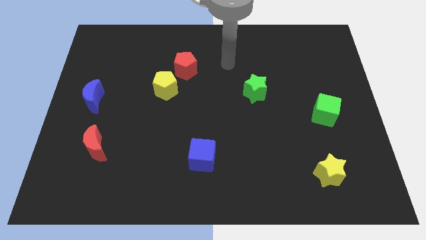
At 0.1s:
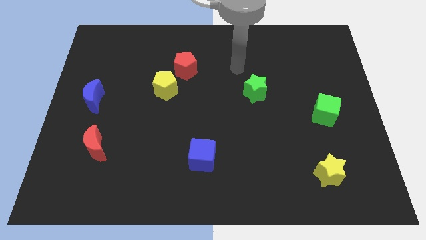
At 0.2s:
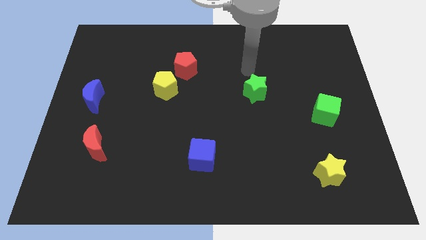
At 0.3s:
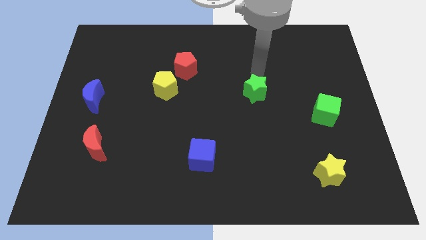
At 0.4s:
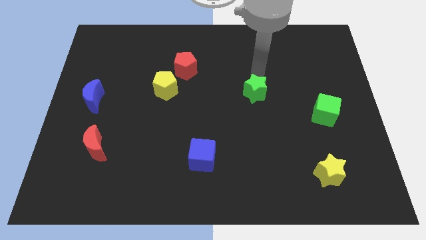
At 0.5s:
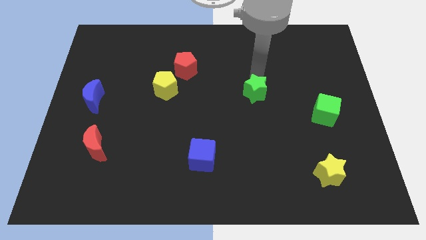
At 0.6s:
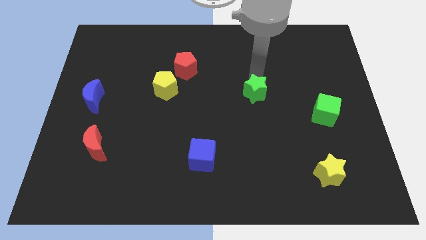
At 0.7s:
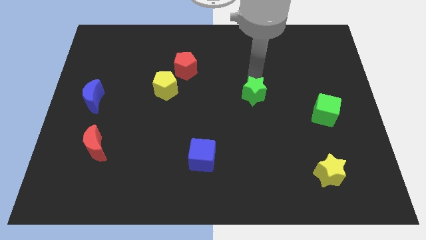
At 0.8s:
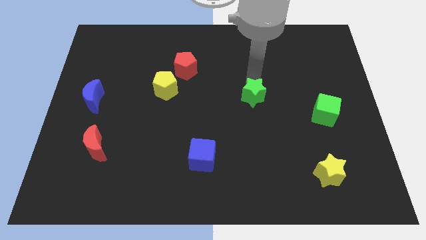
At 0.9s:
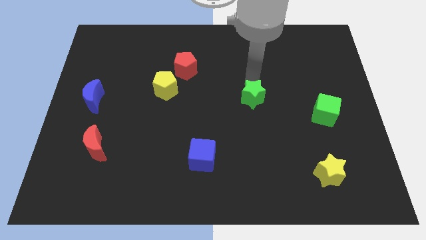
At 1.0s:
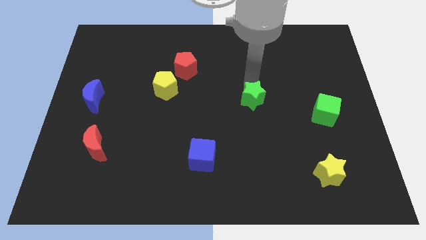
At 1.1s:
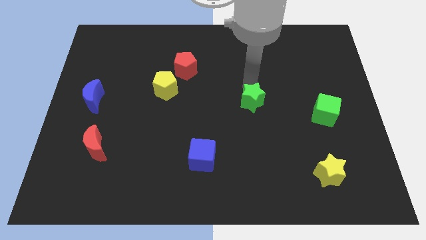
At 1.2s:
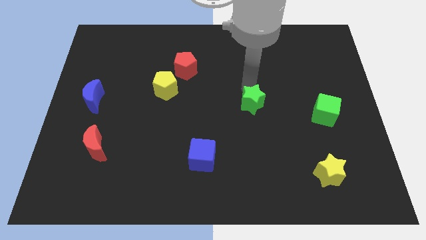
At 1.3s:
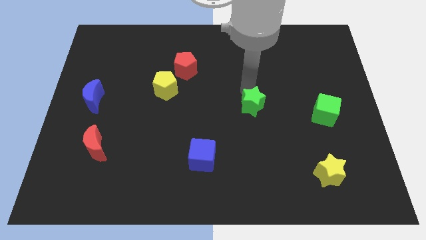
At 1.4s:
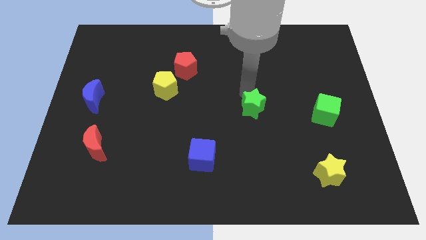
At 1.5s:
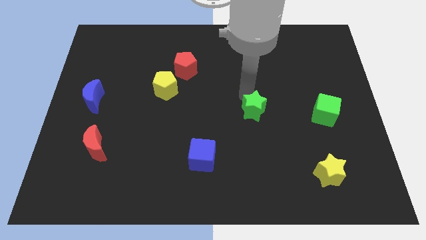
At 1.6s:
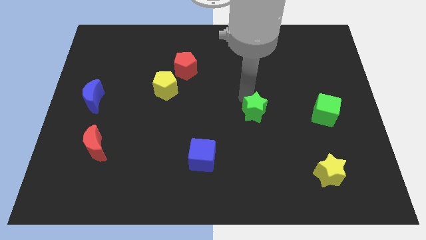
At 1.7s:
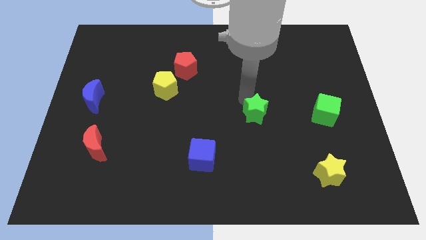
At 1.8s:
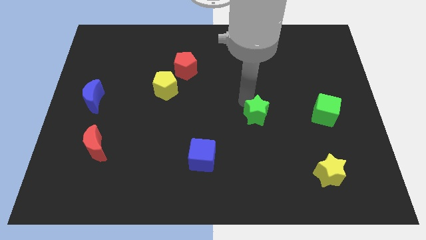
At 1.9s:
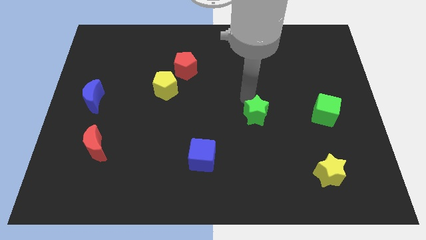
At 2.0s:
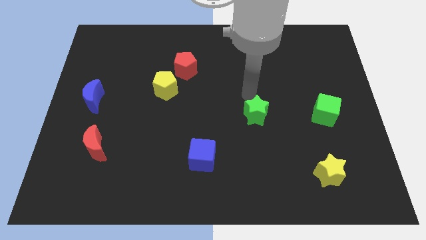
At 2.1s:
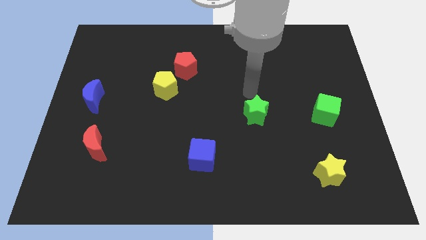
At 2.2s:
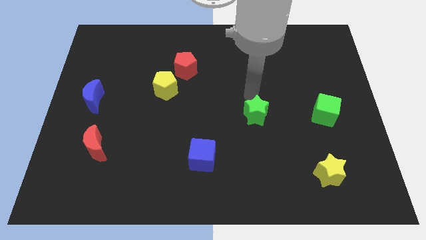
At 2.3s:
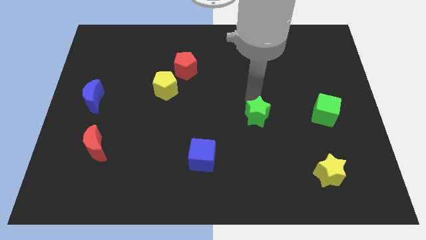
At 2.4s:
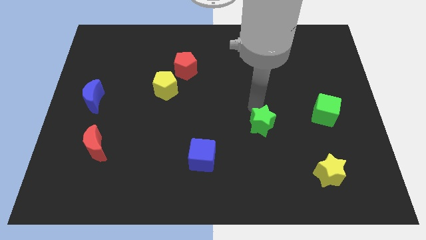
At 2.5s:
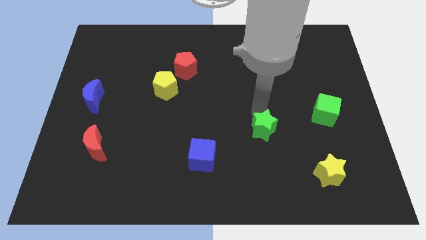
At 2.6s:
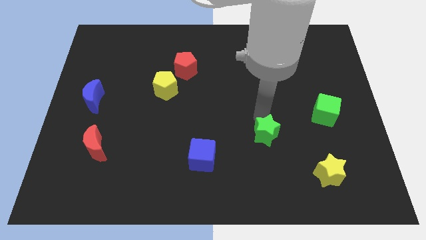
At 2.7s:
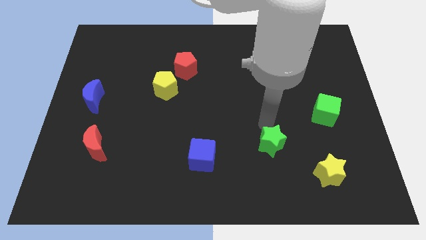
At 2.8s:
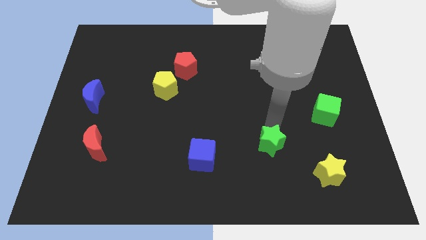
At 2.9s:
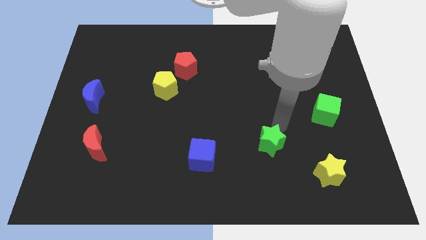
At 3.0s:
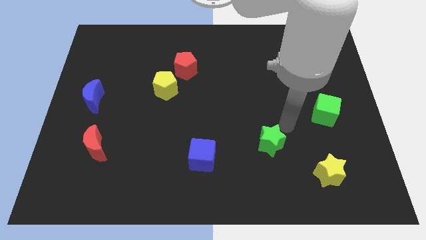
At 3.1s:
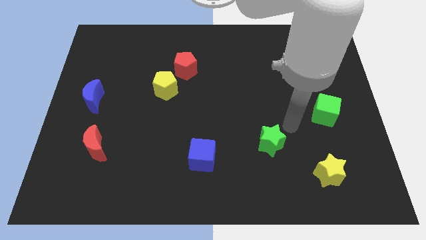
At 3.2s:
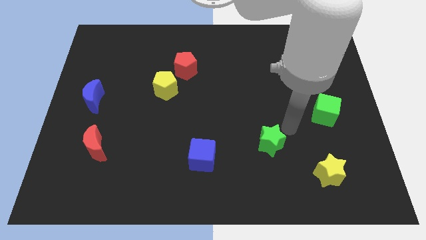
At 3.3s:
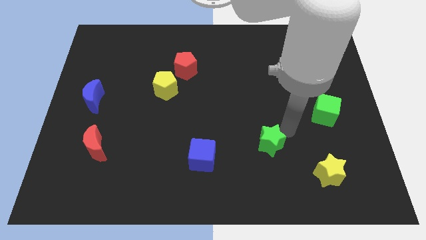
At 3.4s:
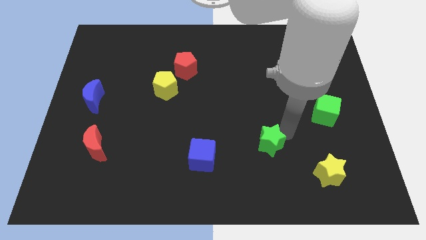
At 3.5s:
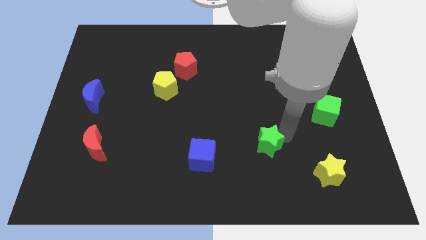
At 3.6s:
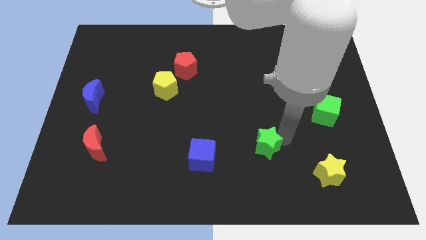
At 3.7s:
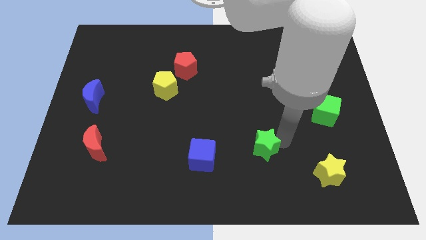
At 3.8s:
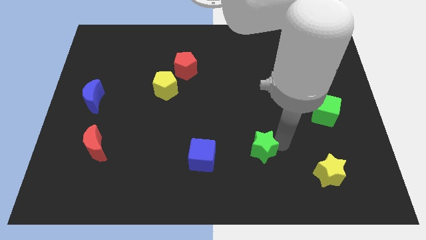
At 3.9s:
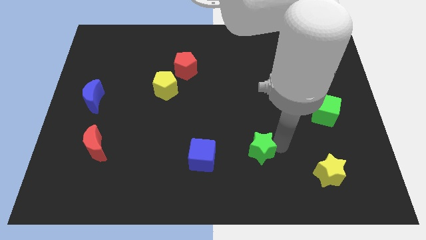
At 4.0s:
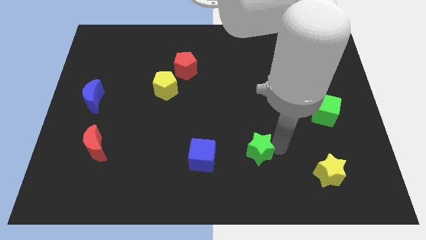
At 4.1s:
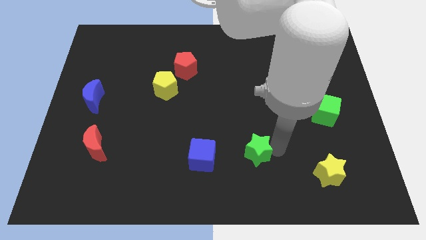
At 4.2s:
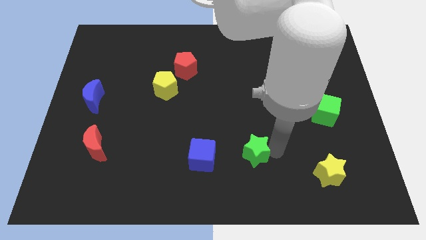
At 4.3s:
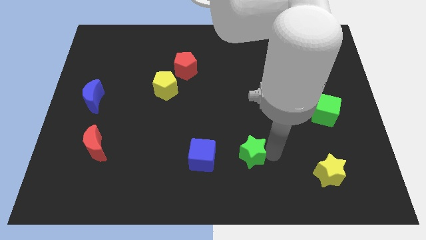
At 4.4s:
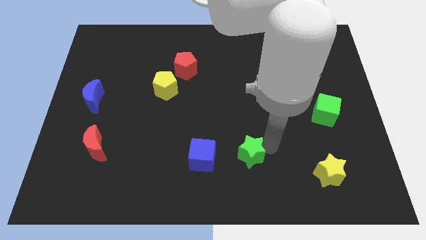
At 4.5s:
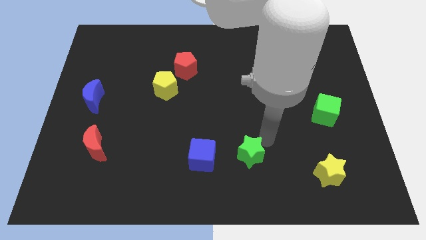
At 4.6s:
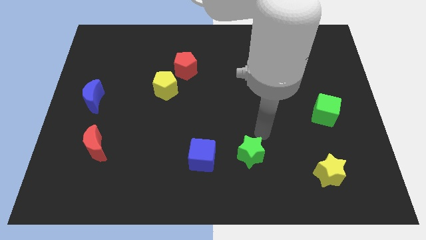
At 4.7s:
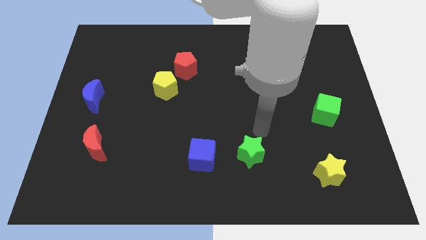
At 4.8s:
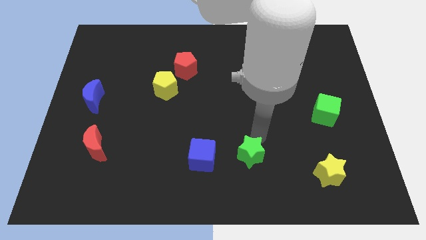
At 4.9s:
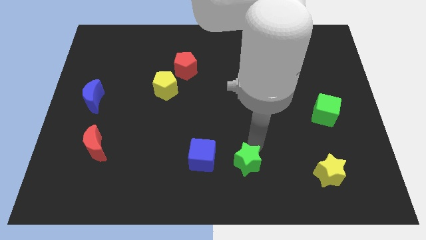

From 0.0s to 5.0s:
push the green star to the bottom

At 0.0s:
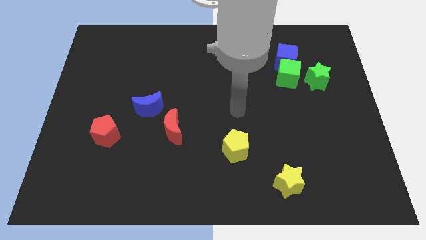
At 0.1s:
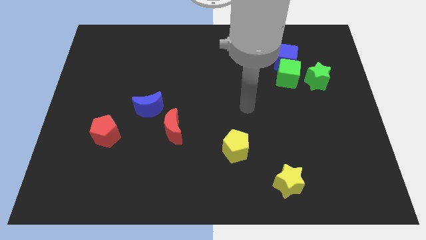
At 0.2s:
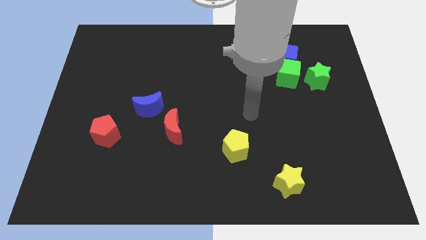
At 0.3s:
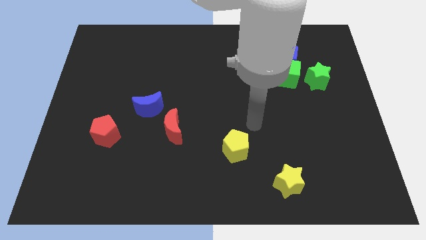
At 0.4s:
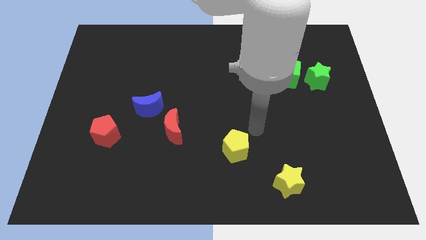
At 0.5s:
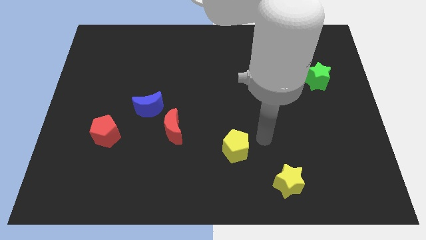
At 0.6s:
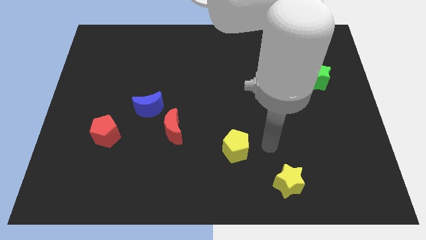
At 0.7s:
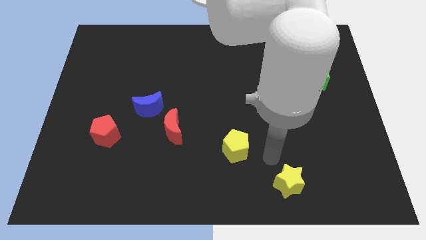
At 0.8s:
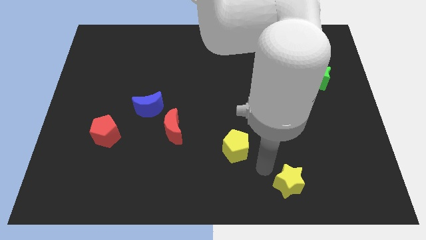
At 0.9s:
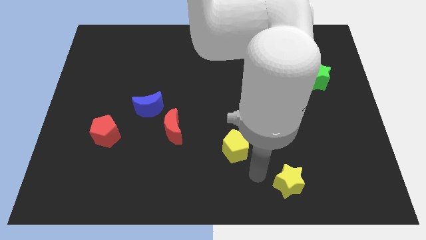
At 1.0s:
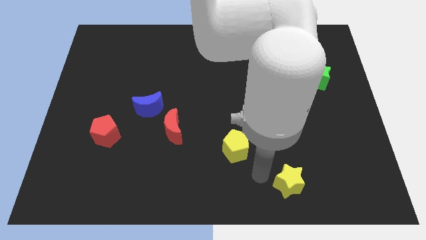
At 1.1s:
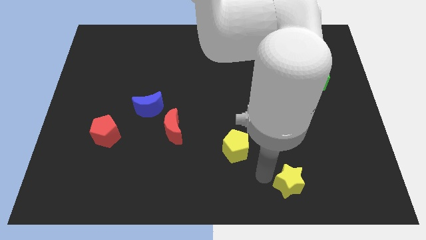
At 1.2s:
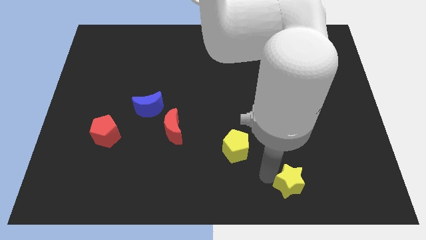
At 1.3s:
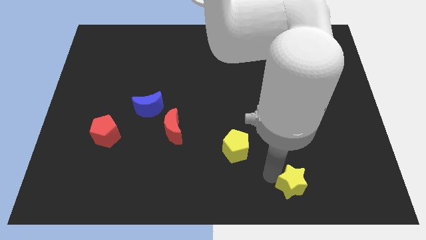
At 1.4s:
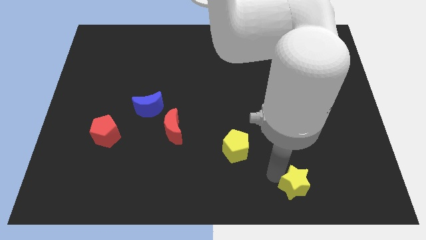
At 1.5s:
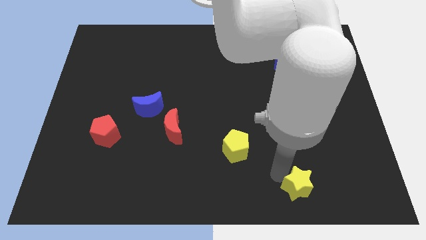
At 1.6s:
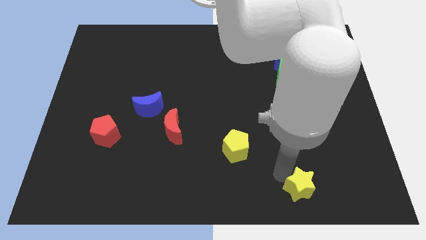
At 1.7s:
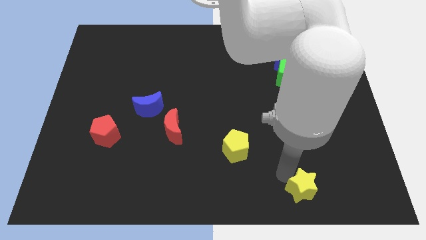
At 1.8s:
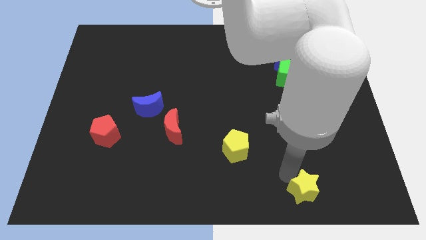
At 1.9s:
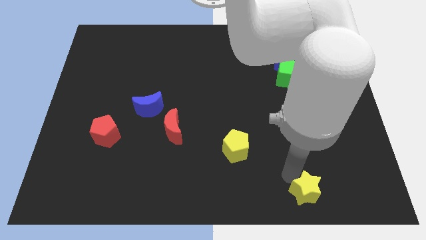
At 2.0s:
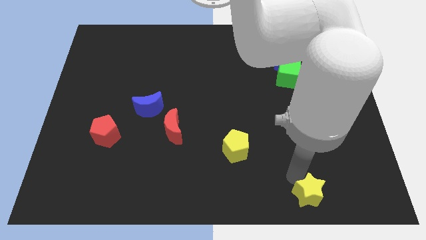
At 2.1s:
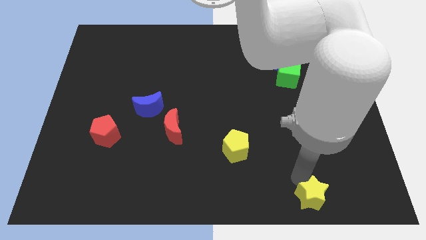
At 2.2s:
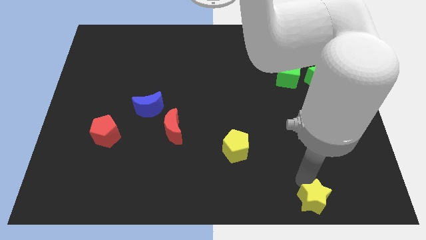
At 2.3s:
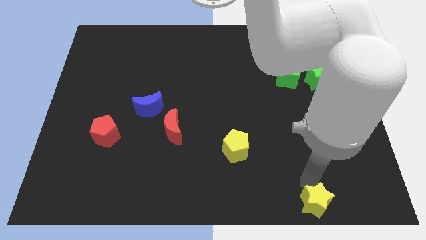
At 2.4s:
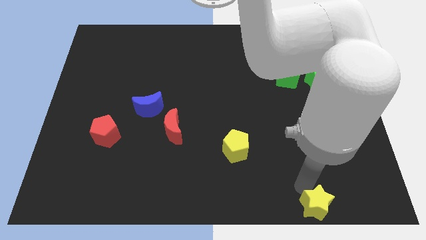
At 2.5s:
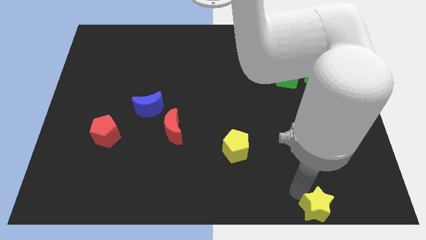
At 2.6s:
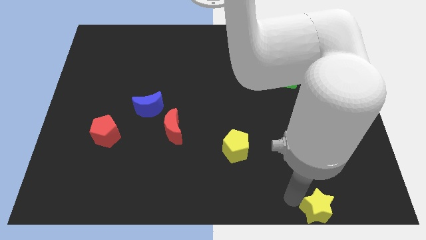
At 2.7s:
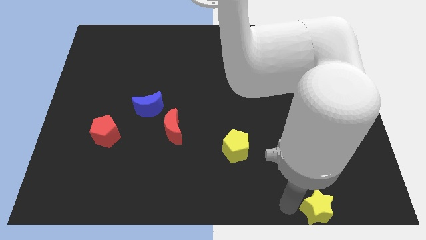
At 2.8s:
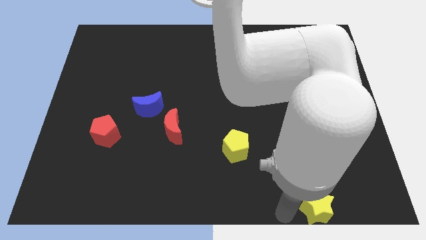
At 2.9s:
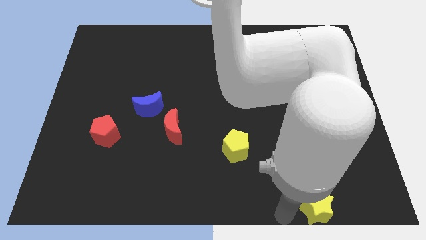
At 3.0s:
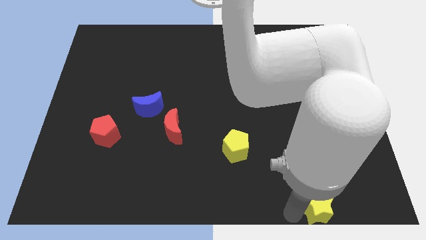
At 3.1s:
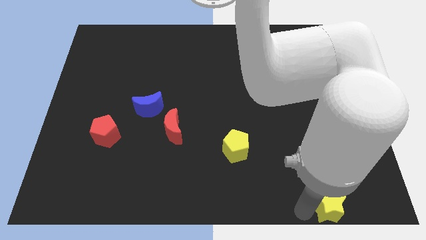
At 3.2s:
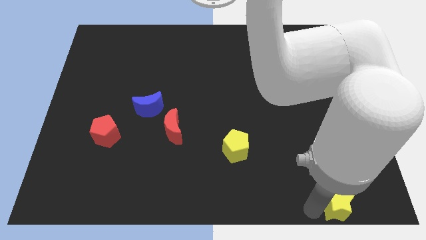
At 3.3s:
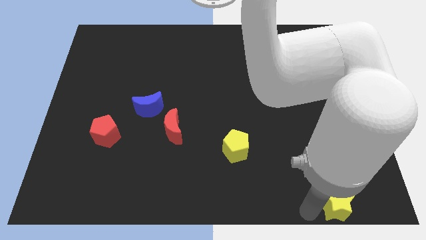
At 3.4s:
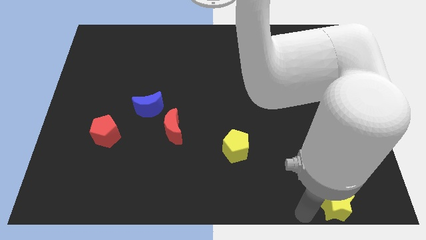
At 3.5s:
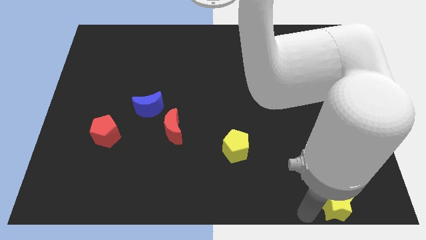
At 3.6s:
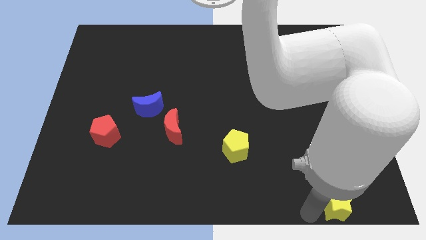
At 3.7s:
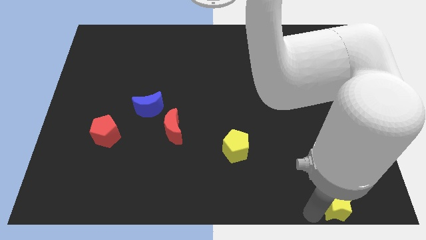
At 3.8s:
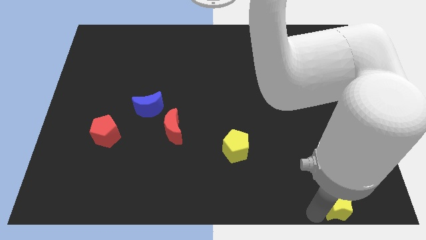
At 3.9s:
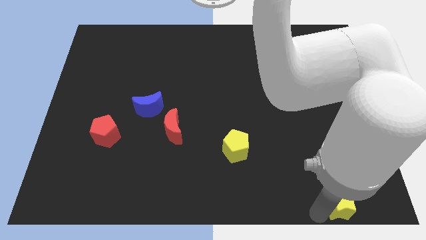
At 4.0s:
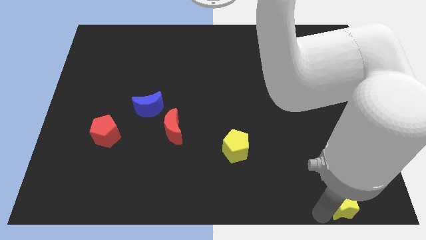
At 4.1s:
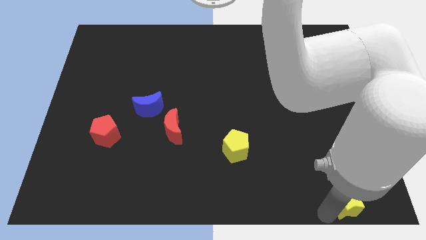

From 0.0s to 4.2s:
push the yellow star to the bottom right
